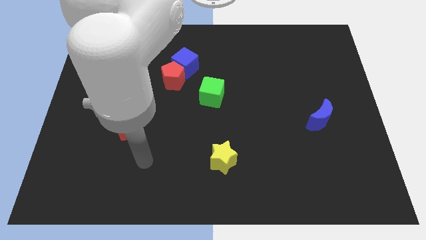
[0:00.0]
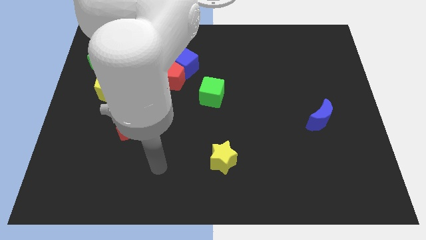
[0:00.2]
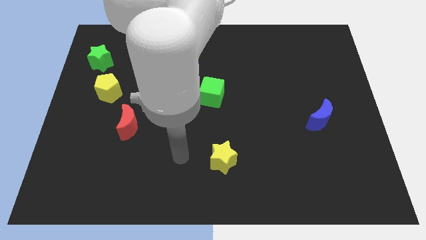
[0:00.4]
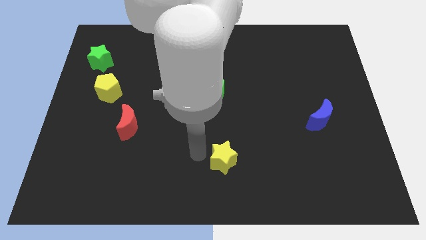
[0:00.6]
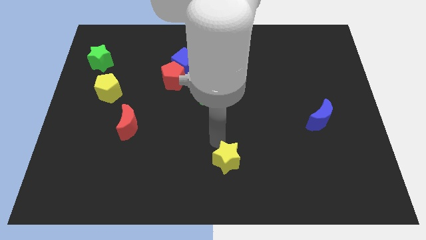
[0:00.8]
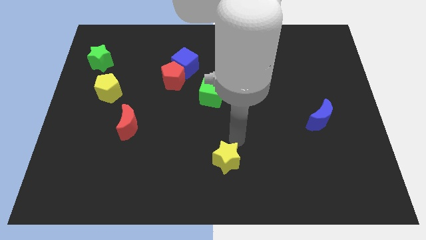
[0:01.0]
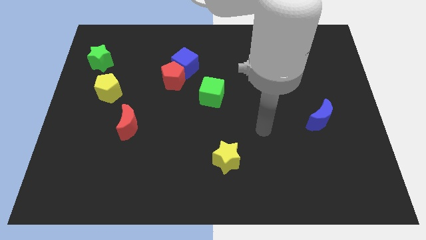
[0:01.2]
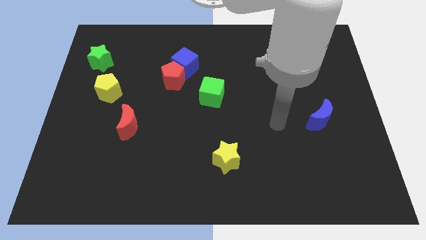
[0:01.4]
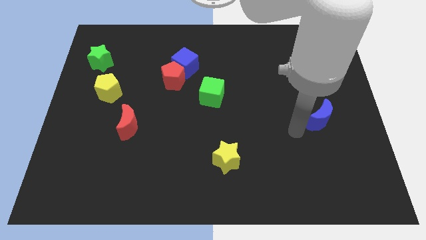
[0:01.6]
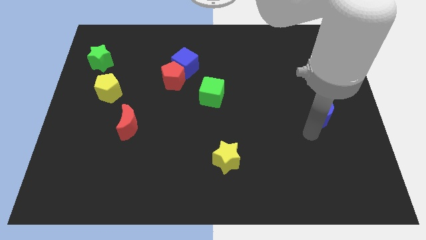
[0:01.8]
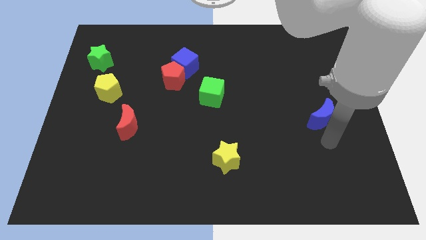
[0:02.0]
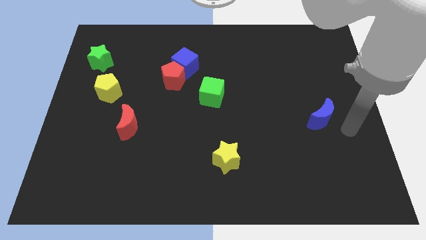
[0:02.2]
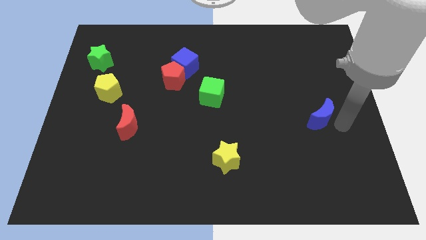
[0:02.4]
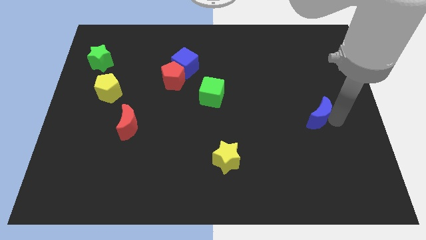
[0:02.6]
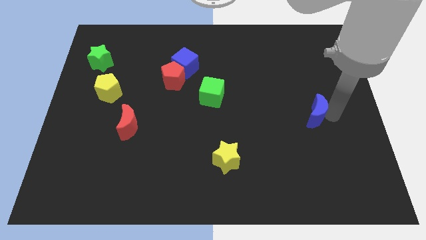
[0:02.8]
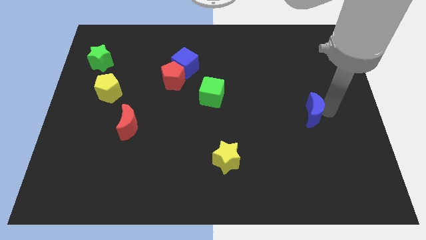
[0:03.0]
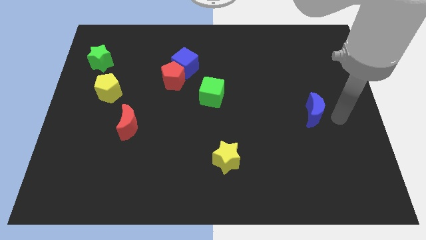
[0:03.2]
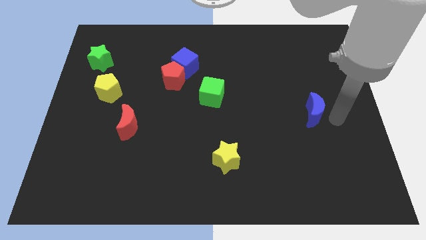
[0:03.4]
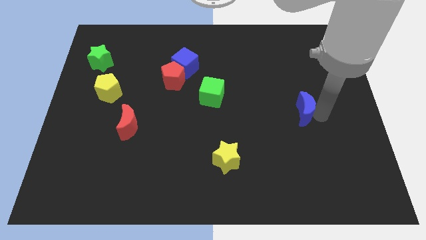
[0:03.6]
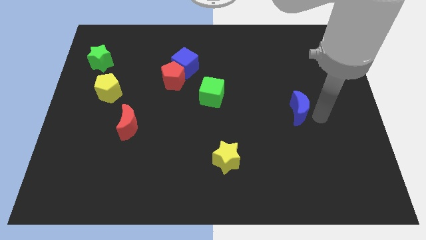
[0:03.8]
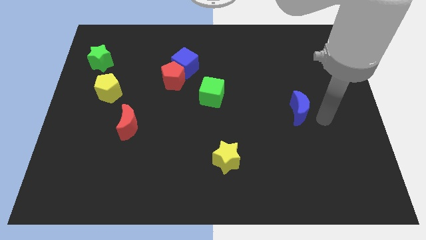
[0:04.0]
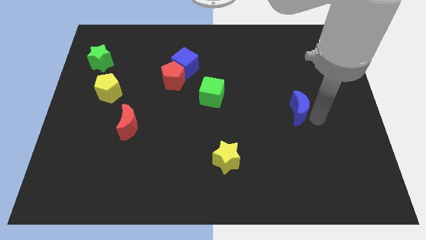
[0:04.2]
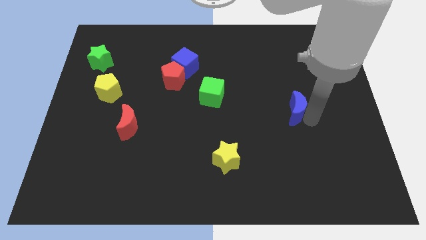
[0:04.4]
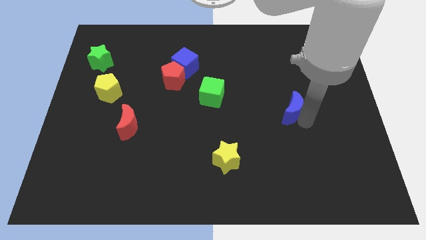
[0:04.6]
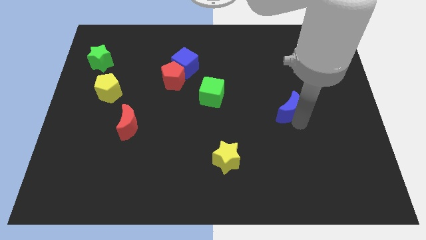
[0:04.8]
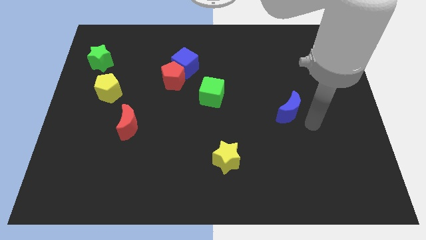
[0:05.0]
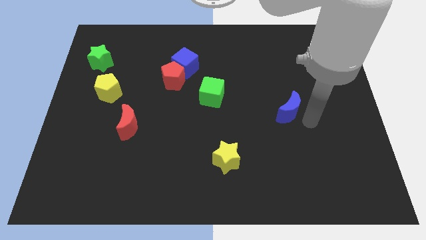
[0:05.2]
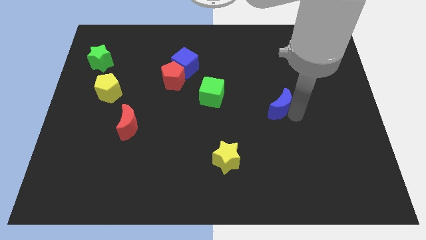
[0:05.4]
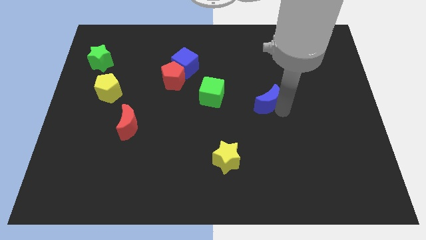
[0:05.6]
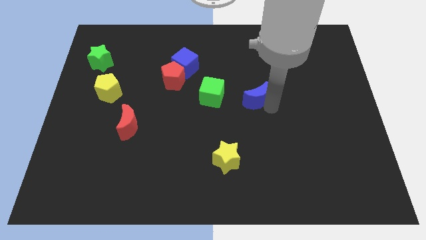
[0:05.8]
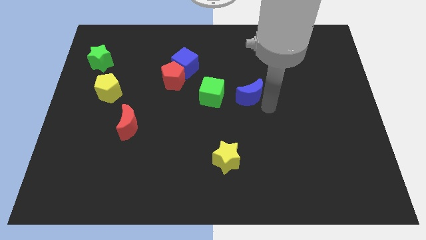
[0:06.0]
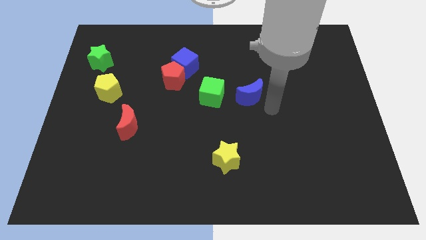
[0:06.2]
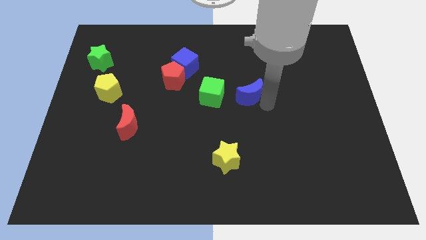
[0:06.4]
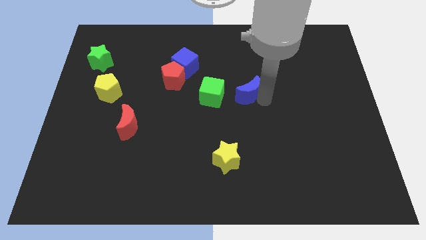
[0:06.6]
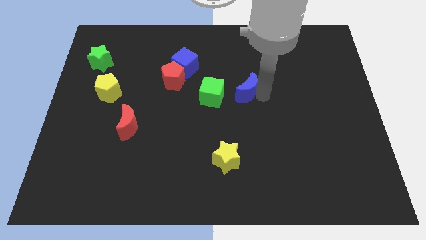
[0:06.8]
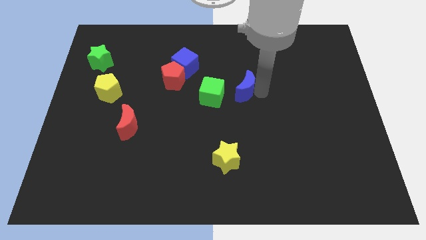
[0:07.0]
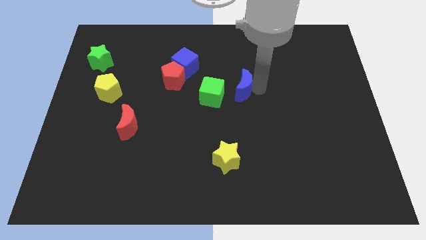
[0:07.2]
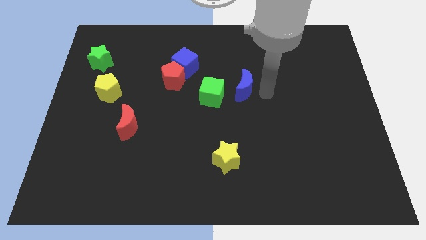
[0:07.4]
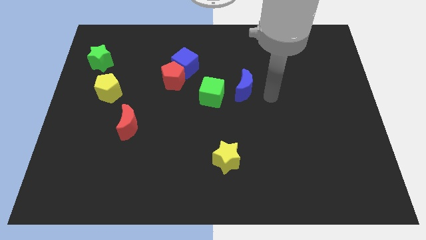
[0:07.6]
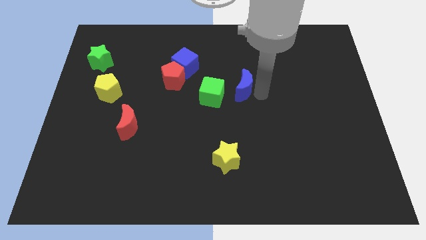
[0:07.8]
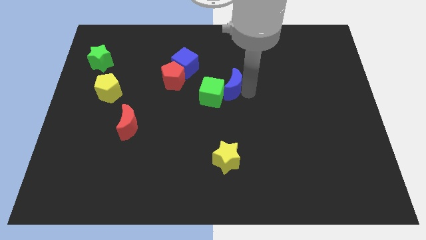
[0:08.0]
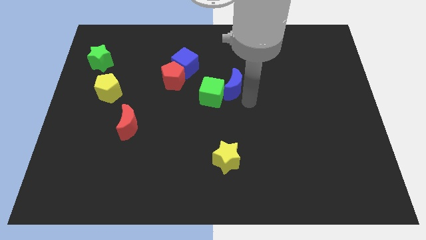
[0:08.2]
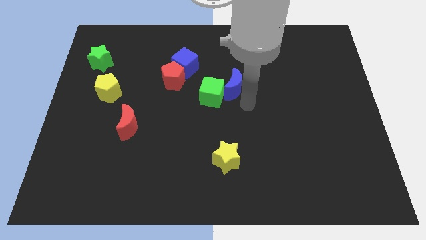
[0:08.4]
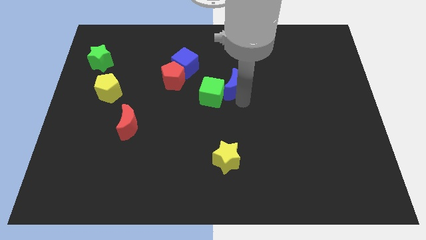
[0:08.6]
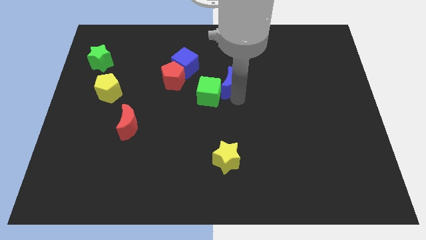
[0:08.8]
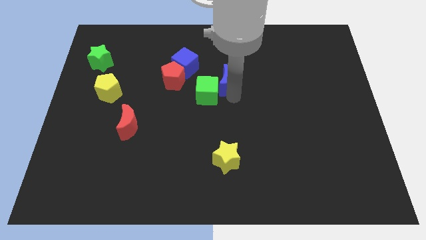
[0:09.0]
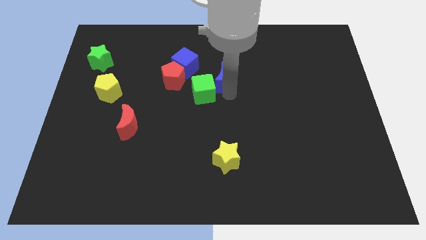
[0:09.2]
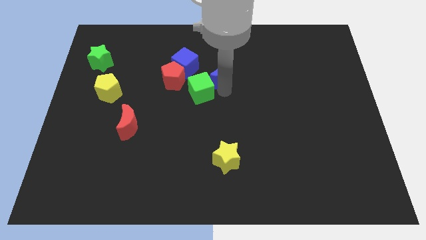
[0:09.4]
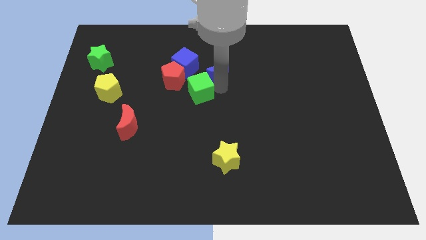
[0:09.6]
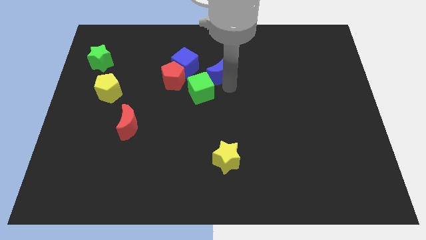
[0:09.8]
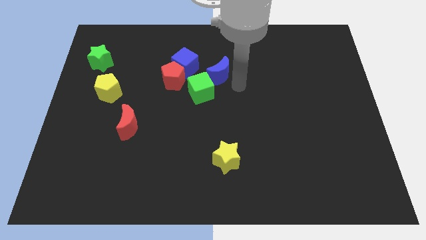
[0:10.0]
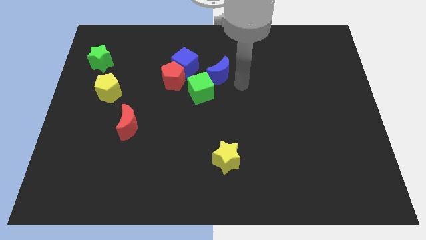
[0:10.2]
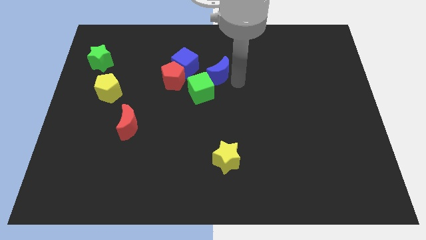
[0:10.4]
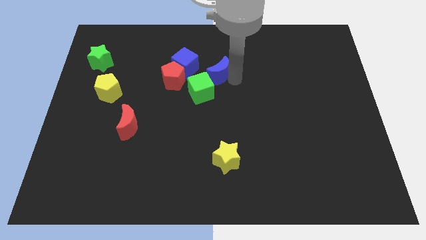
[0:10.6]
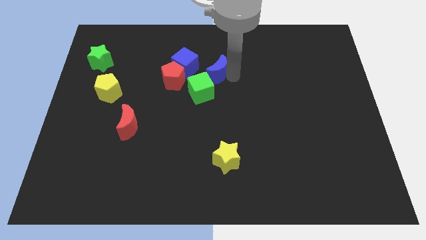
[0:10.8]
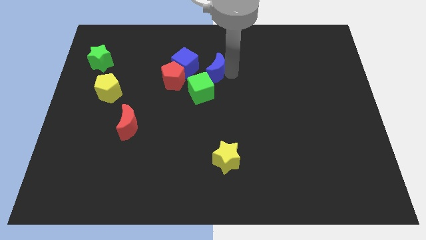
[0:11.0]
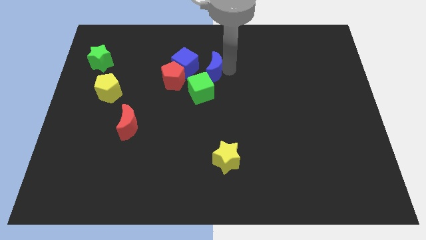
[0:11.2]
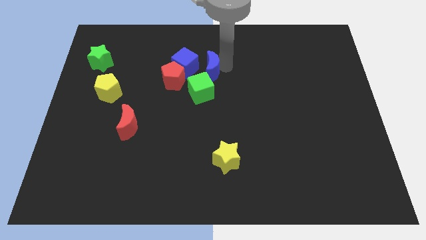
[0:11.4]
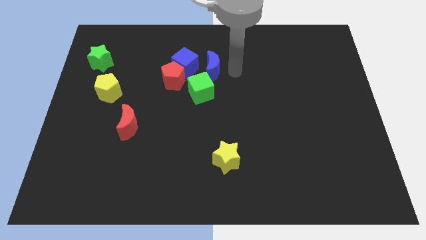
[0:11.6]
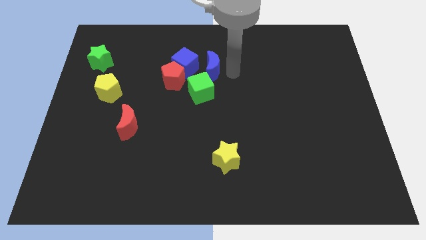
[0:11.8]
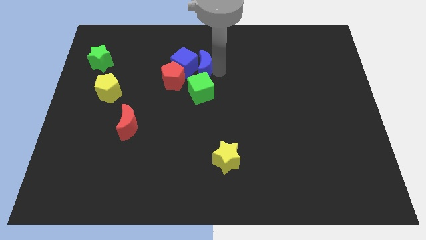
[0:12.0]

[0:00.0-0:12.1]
put the blue moon next to the blue cube

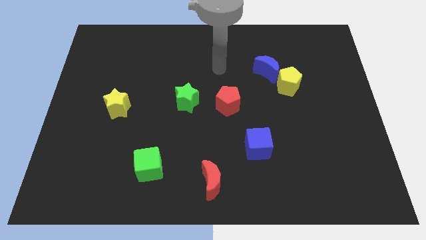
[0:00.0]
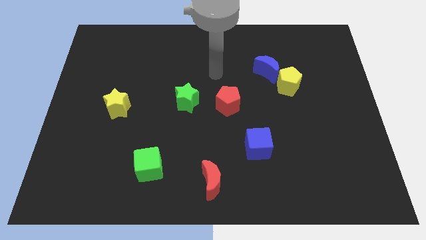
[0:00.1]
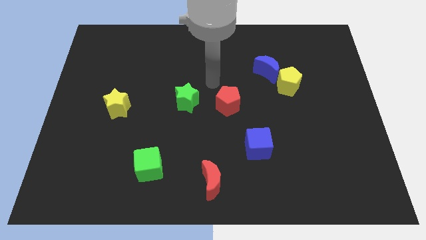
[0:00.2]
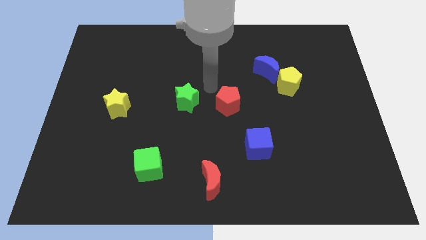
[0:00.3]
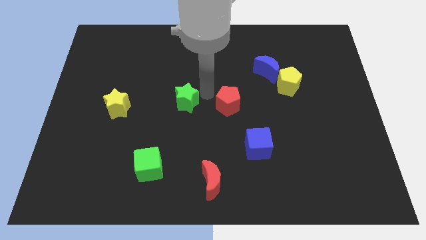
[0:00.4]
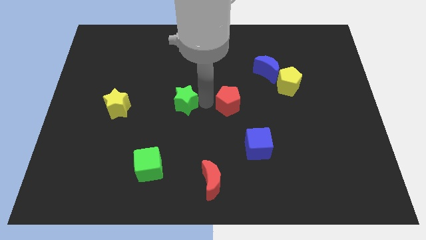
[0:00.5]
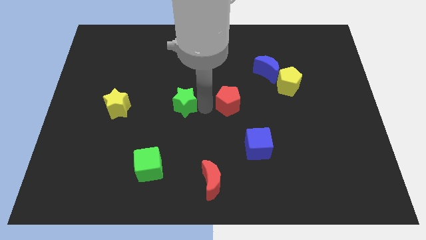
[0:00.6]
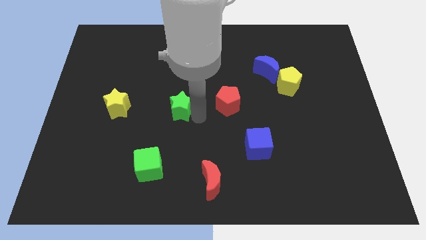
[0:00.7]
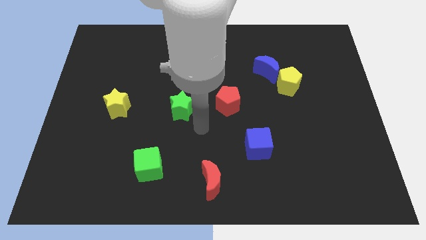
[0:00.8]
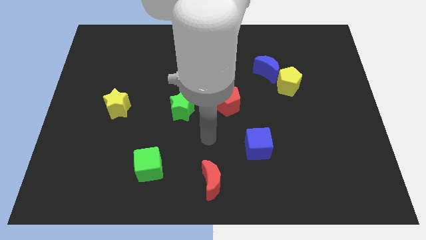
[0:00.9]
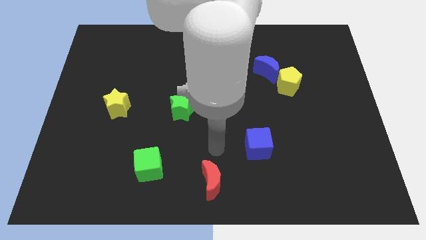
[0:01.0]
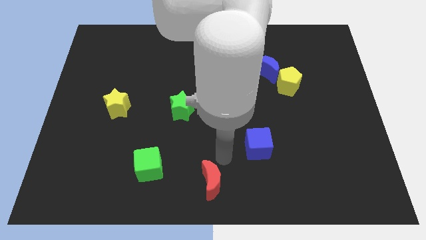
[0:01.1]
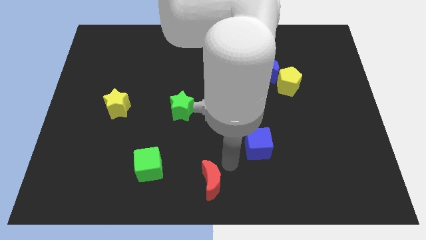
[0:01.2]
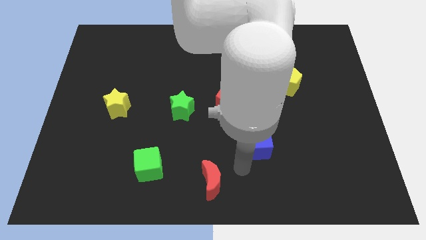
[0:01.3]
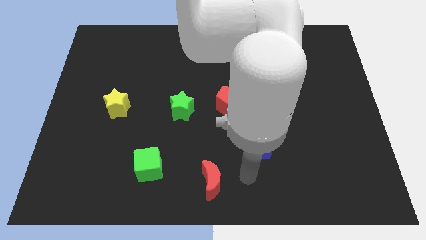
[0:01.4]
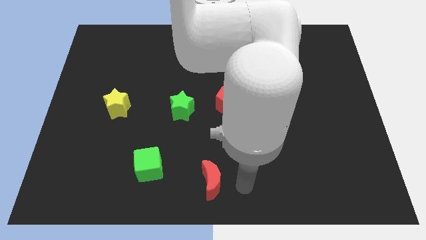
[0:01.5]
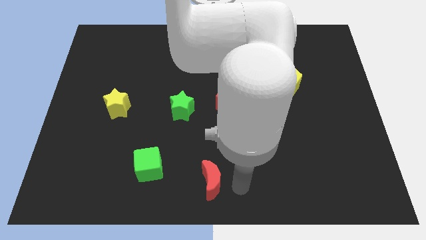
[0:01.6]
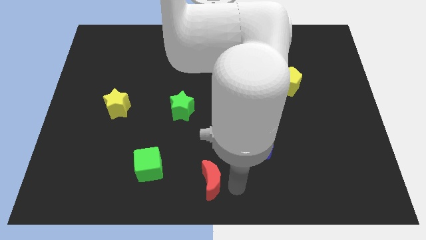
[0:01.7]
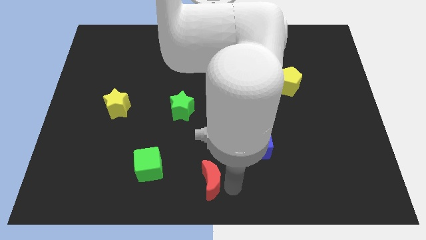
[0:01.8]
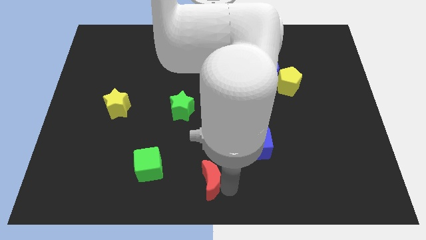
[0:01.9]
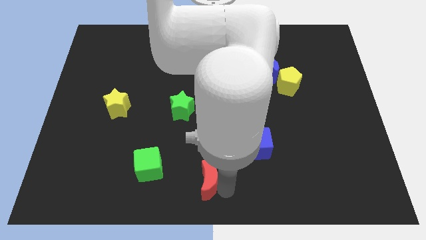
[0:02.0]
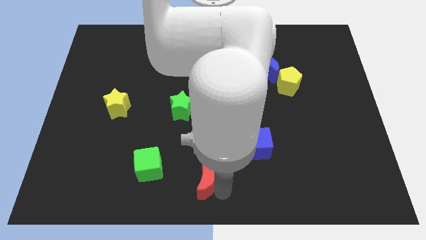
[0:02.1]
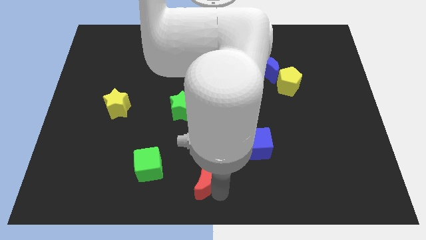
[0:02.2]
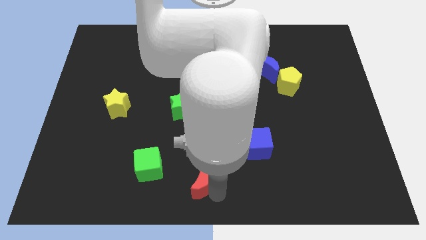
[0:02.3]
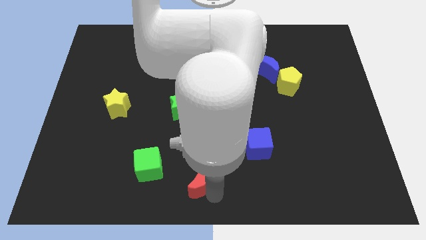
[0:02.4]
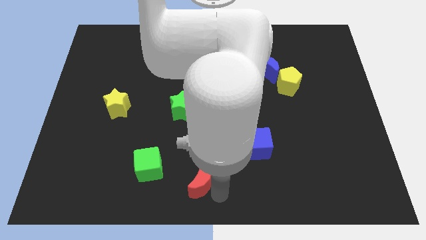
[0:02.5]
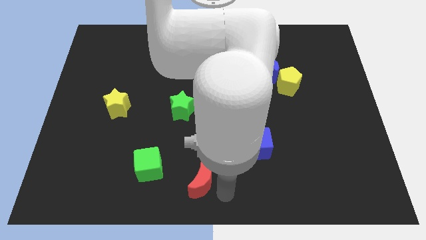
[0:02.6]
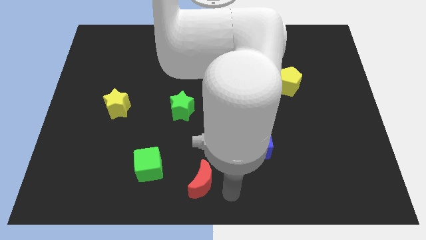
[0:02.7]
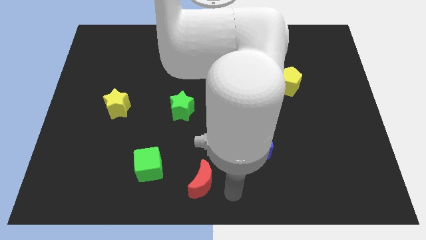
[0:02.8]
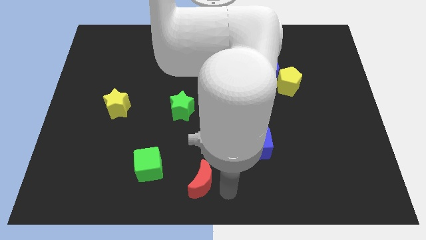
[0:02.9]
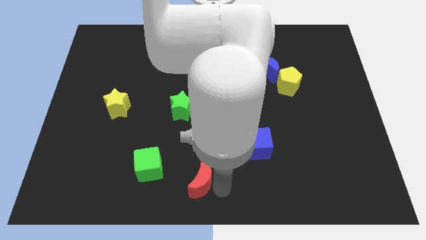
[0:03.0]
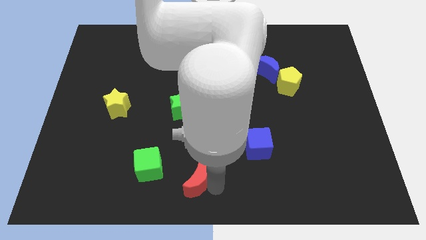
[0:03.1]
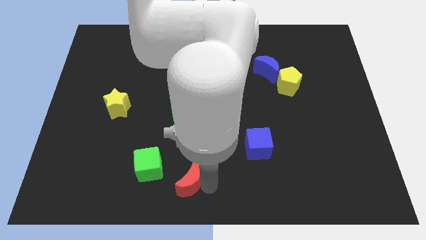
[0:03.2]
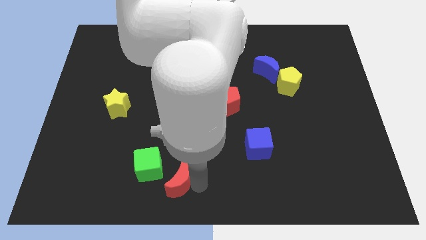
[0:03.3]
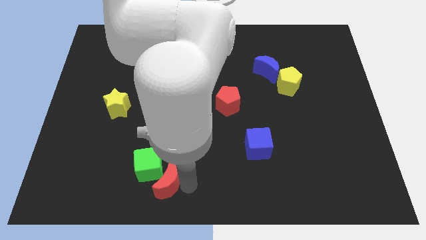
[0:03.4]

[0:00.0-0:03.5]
slide the red moon towards the green cube
